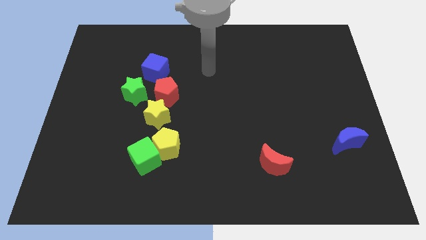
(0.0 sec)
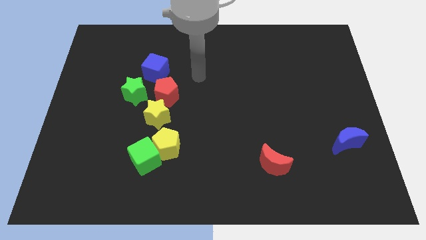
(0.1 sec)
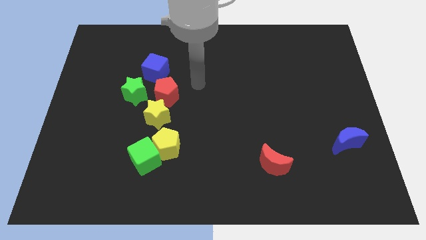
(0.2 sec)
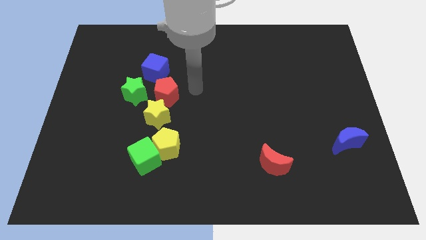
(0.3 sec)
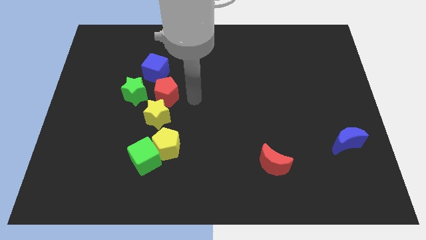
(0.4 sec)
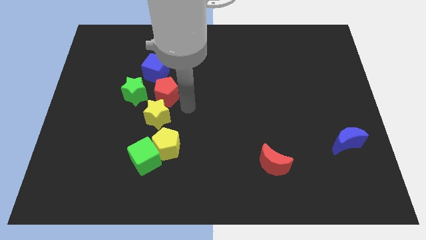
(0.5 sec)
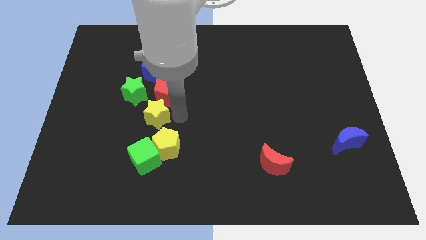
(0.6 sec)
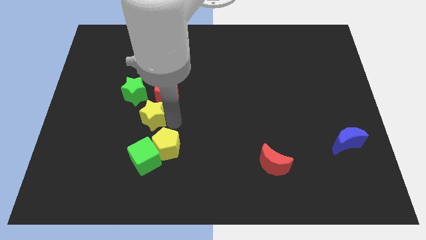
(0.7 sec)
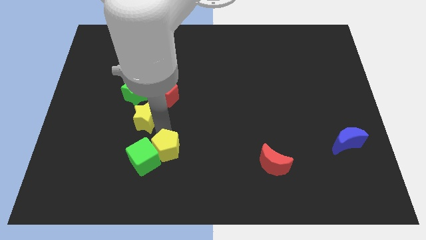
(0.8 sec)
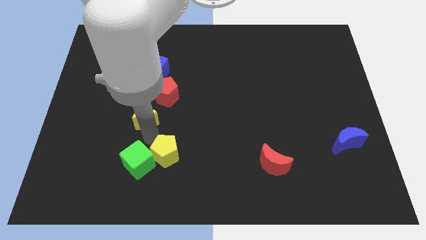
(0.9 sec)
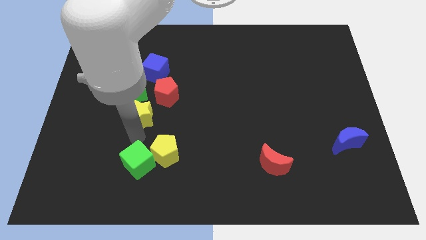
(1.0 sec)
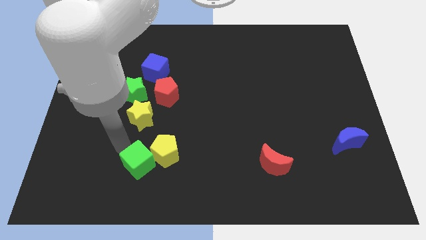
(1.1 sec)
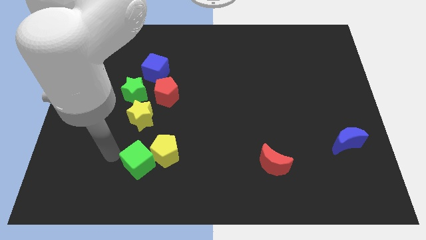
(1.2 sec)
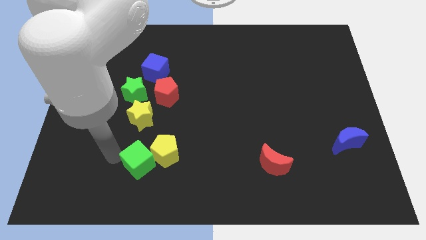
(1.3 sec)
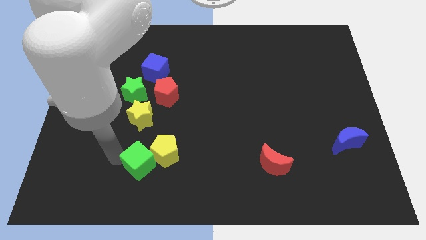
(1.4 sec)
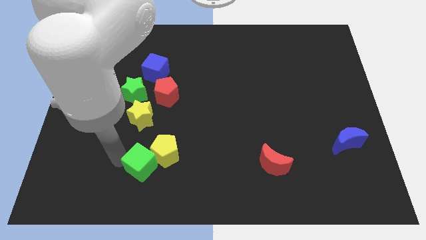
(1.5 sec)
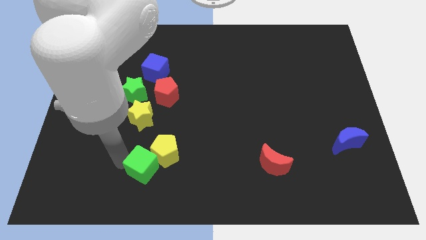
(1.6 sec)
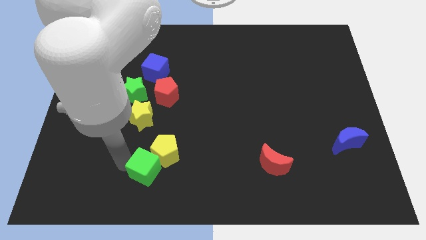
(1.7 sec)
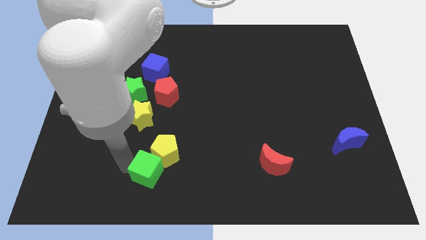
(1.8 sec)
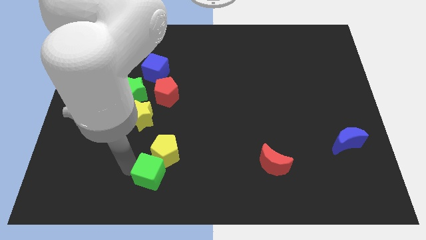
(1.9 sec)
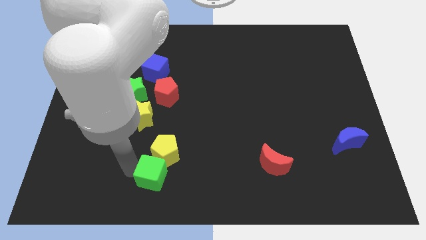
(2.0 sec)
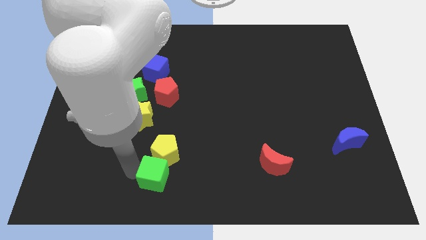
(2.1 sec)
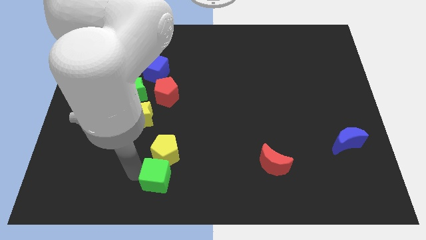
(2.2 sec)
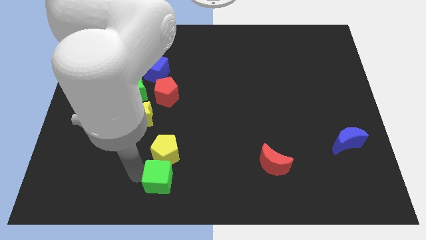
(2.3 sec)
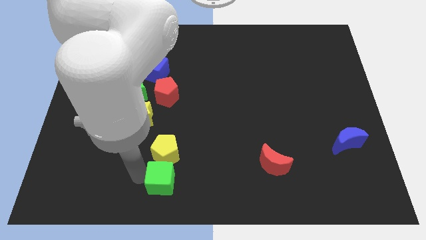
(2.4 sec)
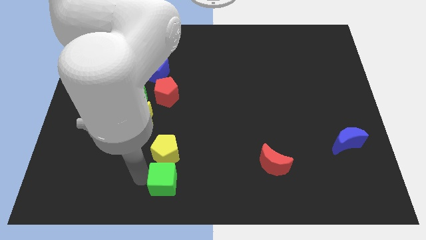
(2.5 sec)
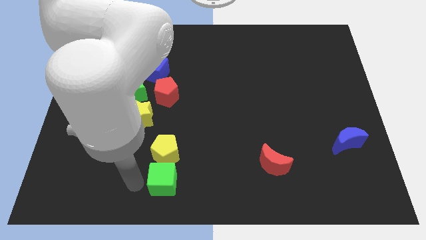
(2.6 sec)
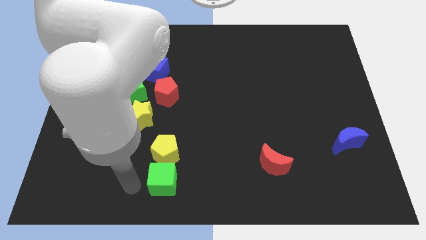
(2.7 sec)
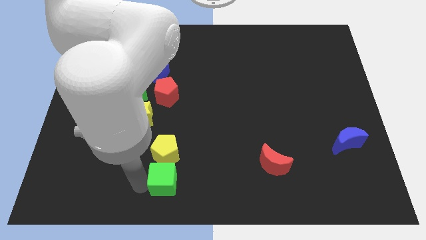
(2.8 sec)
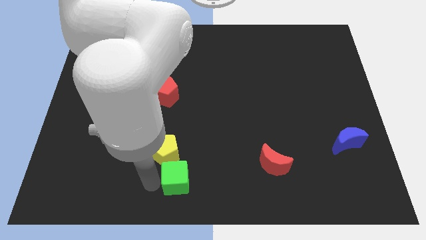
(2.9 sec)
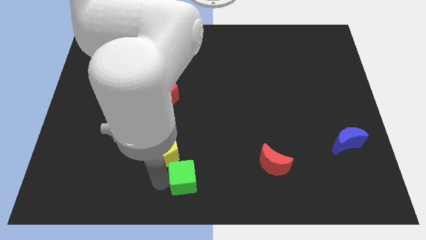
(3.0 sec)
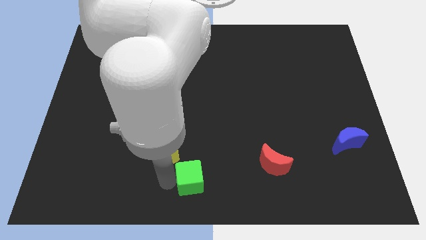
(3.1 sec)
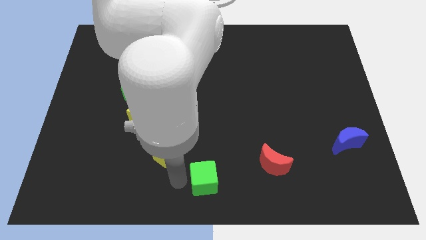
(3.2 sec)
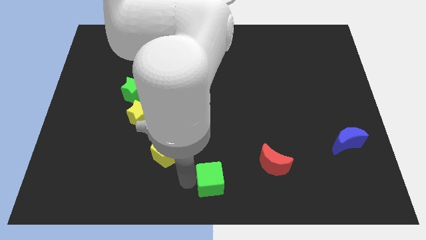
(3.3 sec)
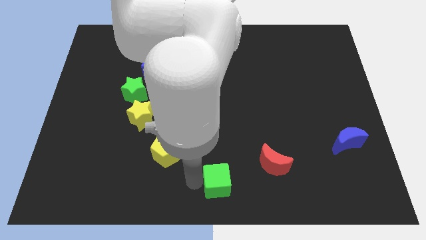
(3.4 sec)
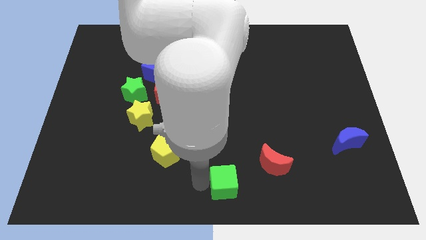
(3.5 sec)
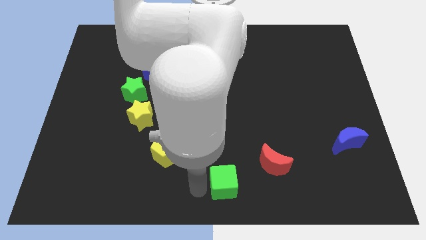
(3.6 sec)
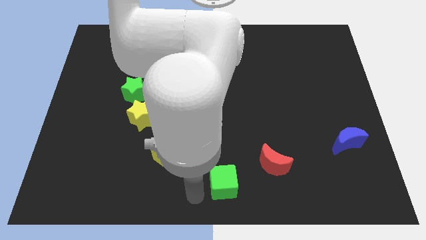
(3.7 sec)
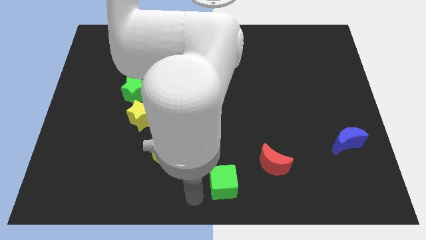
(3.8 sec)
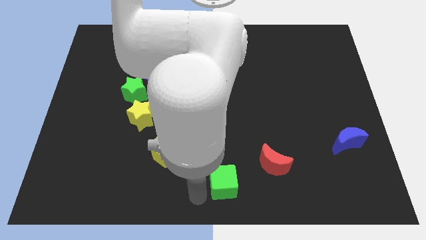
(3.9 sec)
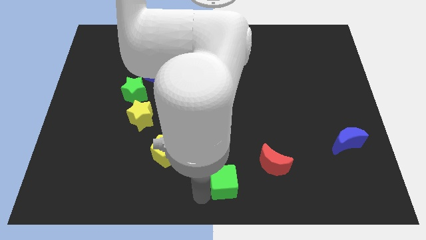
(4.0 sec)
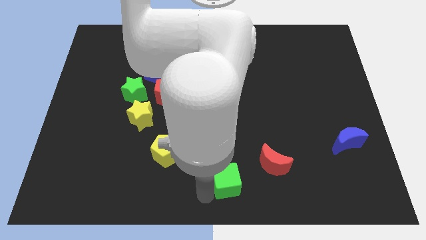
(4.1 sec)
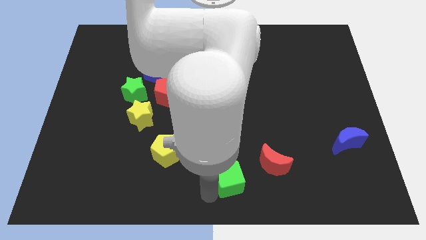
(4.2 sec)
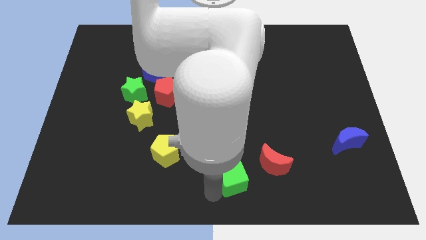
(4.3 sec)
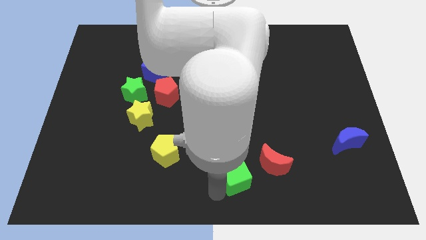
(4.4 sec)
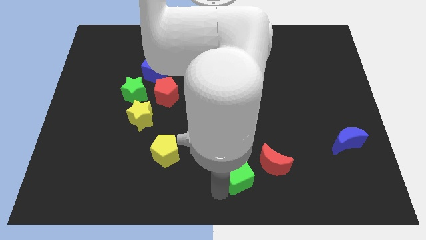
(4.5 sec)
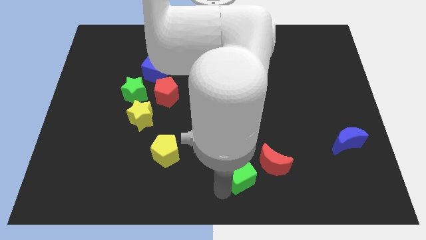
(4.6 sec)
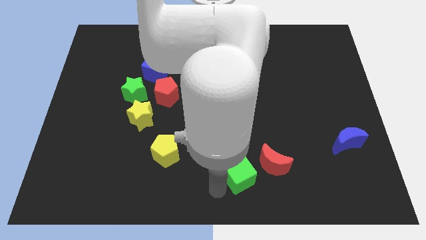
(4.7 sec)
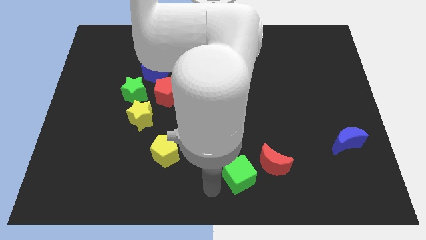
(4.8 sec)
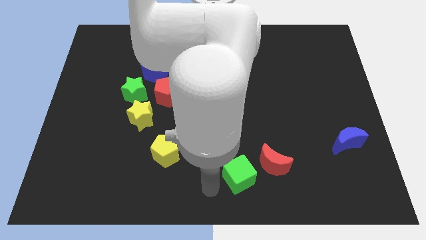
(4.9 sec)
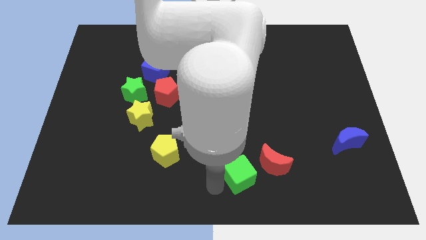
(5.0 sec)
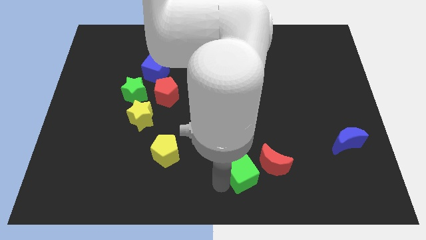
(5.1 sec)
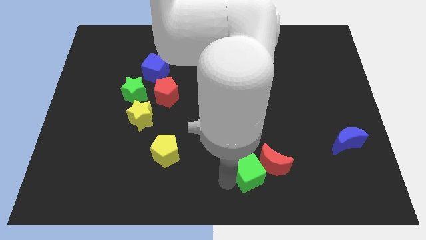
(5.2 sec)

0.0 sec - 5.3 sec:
slide the green cube next to the red moon

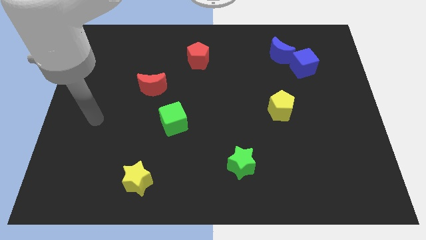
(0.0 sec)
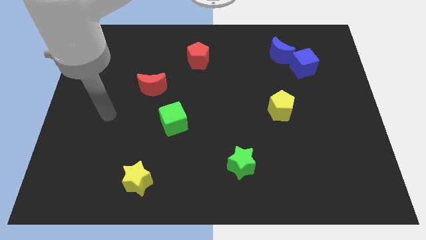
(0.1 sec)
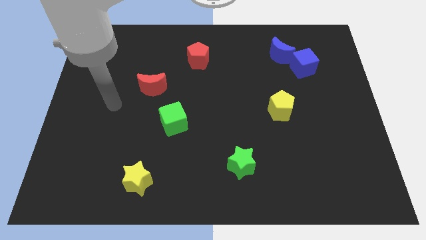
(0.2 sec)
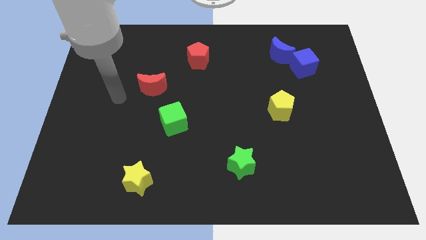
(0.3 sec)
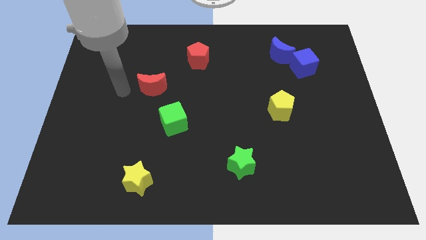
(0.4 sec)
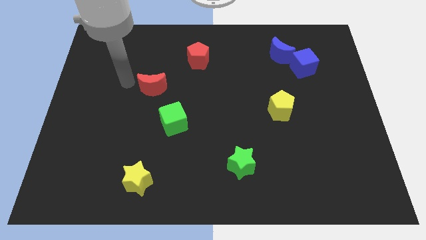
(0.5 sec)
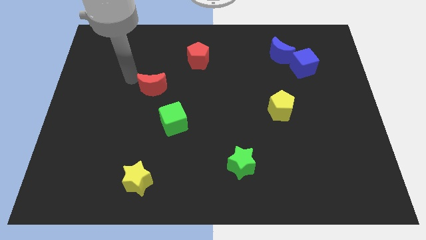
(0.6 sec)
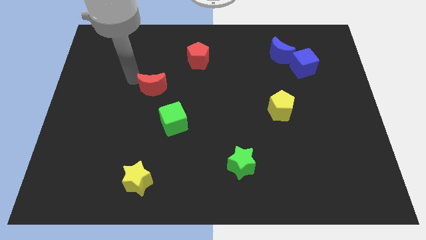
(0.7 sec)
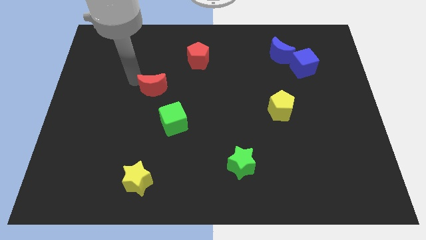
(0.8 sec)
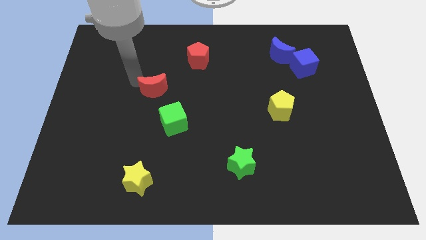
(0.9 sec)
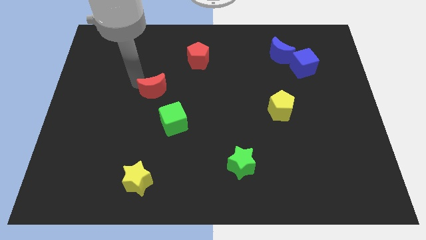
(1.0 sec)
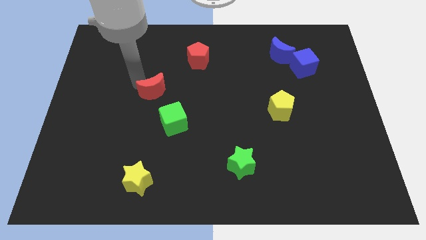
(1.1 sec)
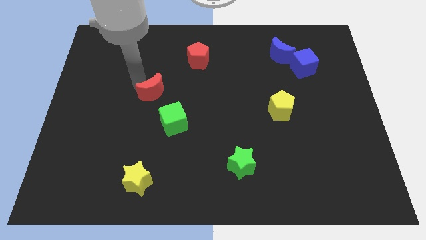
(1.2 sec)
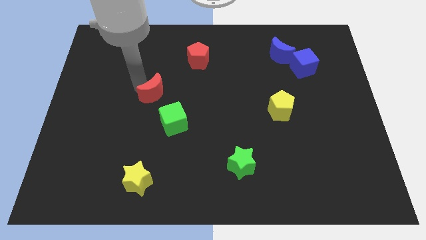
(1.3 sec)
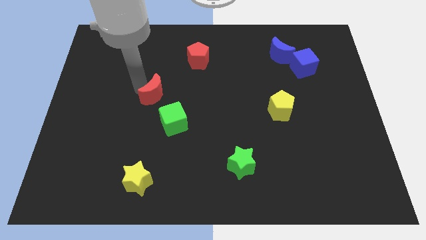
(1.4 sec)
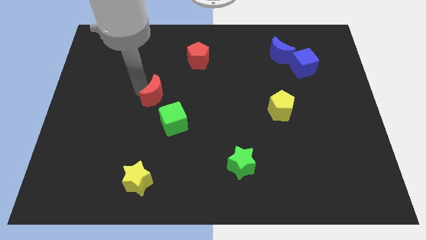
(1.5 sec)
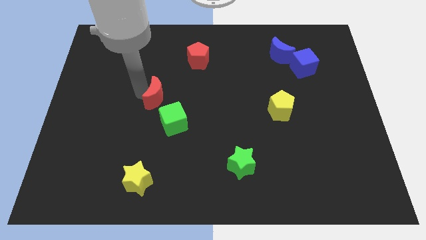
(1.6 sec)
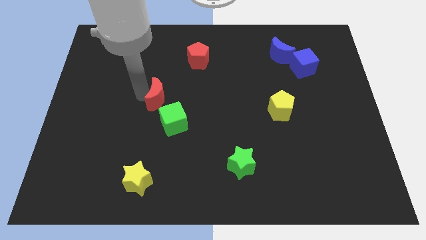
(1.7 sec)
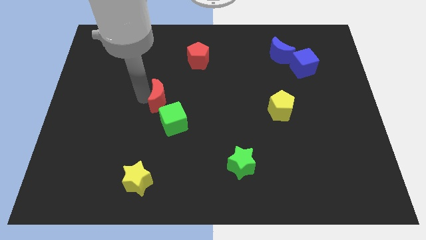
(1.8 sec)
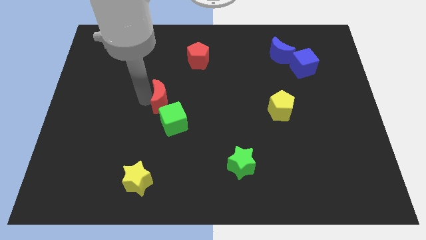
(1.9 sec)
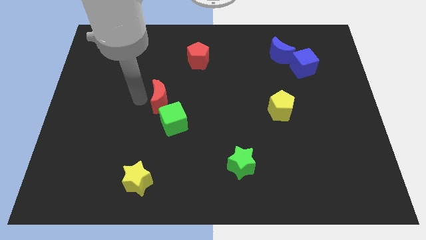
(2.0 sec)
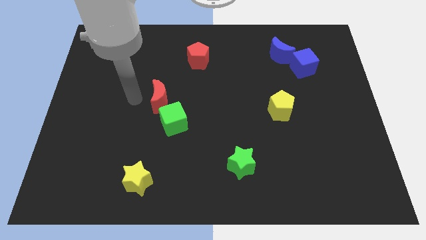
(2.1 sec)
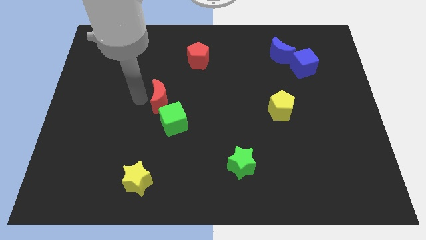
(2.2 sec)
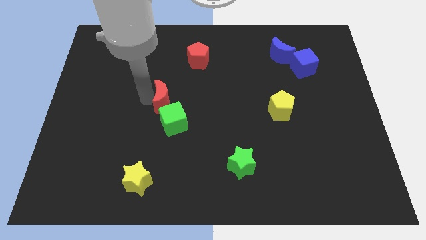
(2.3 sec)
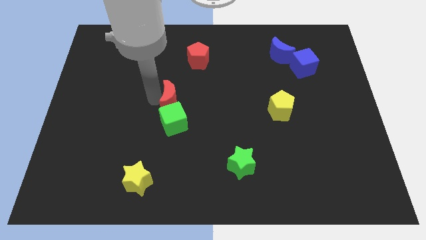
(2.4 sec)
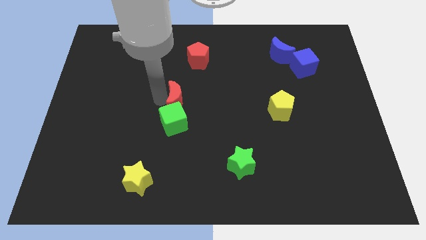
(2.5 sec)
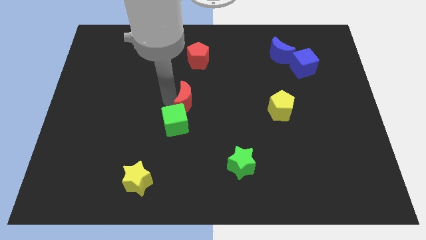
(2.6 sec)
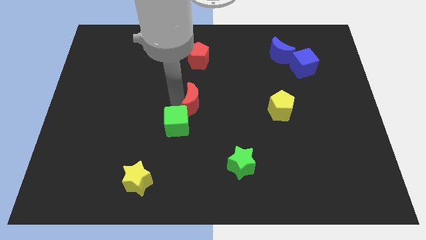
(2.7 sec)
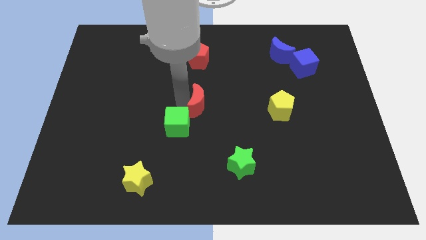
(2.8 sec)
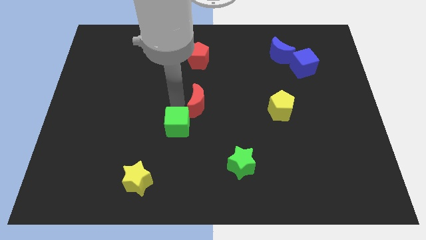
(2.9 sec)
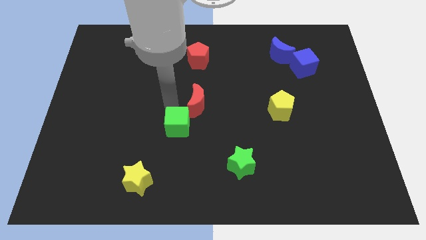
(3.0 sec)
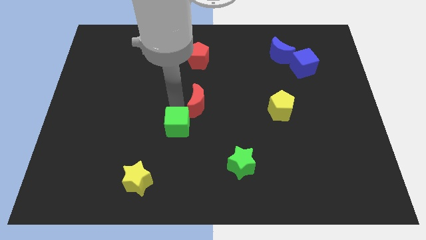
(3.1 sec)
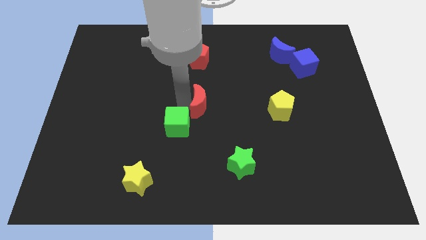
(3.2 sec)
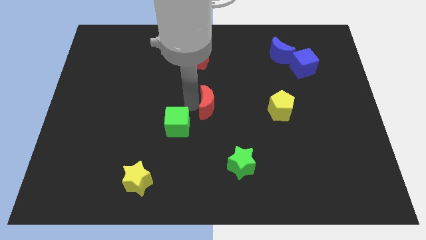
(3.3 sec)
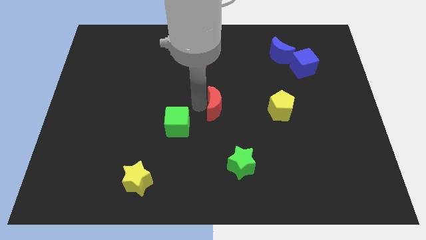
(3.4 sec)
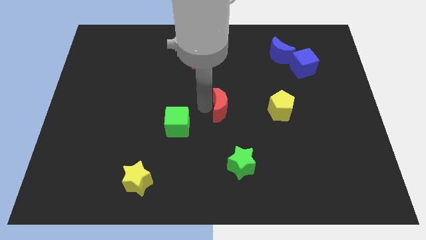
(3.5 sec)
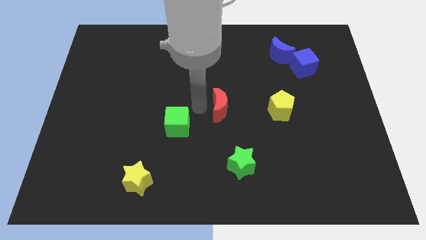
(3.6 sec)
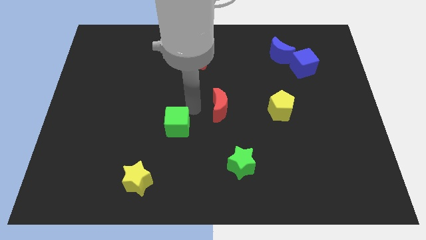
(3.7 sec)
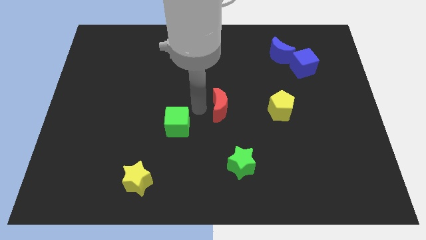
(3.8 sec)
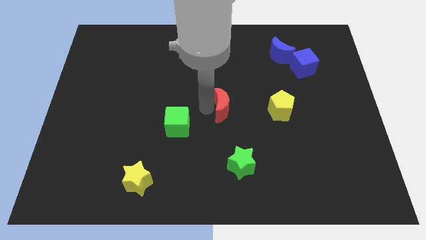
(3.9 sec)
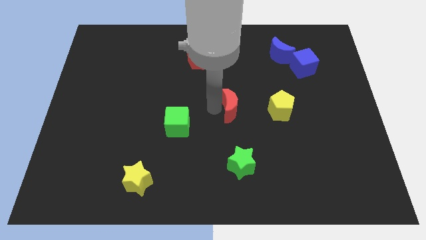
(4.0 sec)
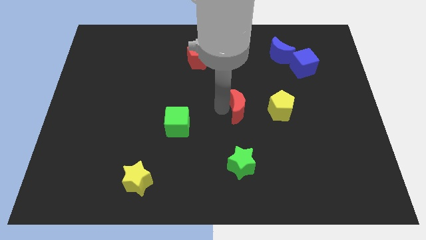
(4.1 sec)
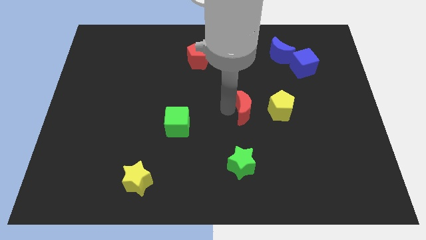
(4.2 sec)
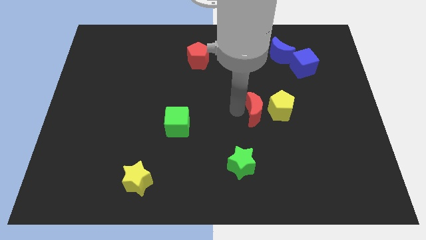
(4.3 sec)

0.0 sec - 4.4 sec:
move the red moon to the yellow pentagon
